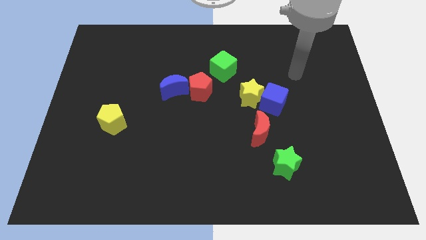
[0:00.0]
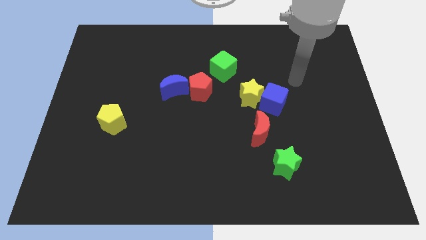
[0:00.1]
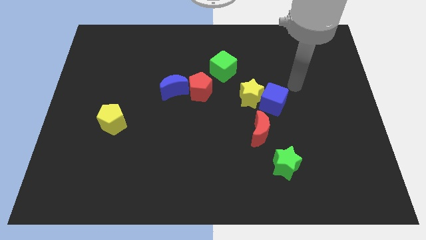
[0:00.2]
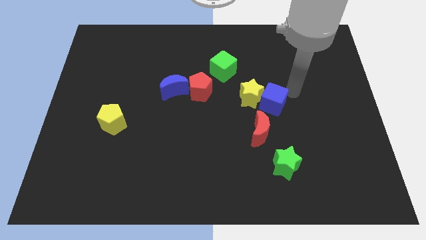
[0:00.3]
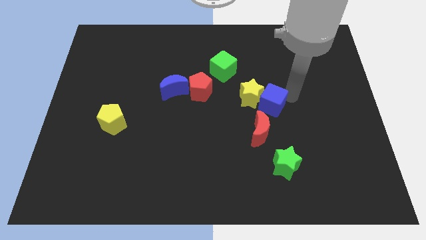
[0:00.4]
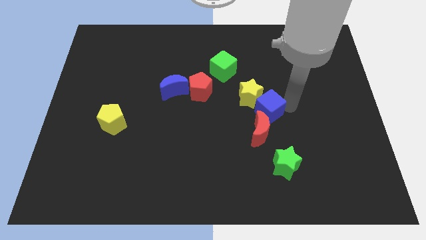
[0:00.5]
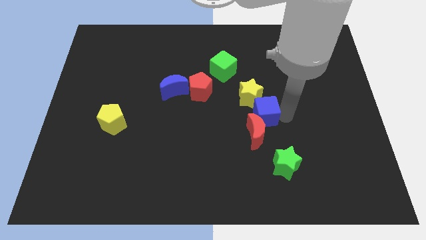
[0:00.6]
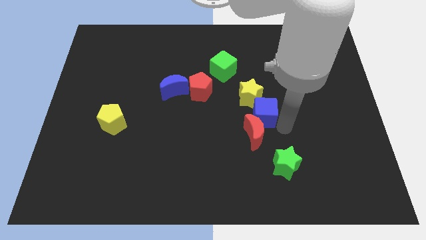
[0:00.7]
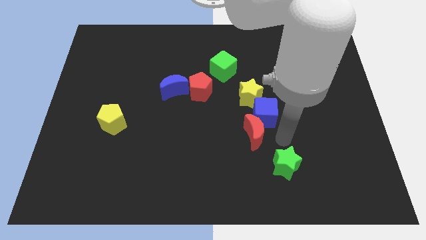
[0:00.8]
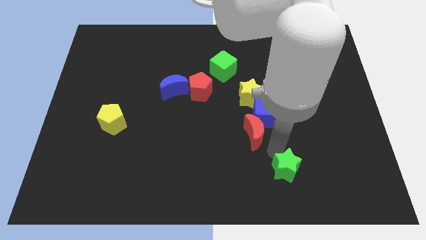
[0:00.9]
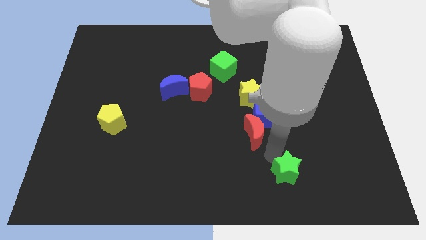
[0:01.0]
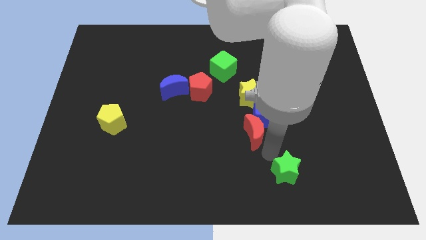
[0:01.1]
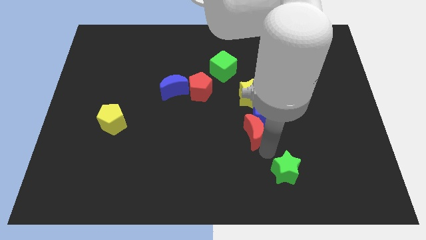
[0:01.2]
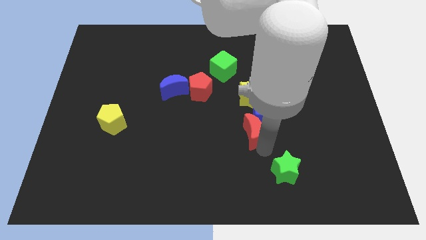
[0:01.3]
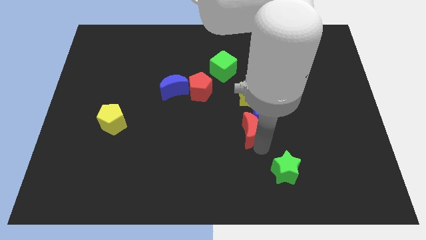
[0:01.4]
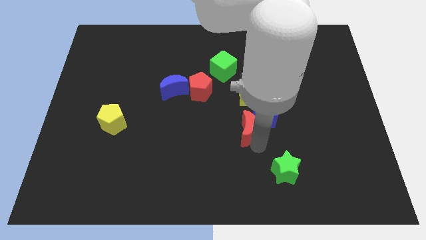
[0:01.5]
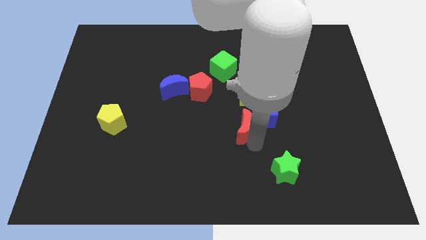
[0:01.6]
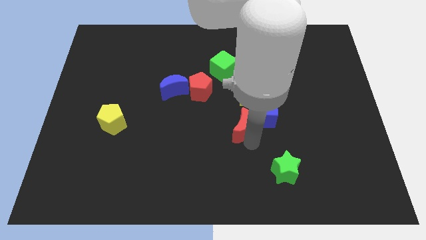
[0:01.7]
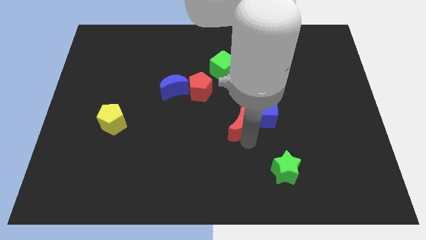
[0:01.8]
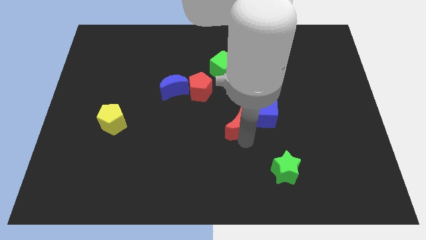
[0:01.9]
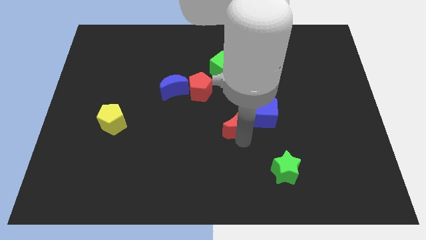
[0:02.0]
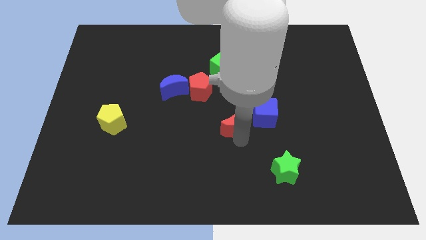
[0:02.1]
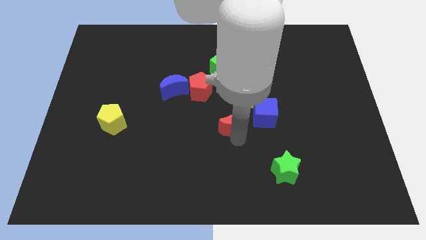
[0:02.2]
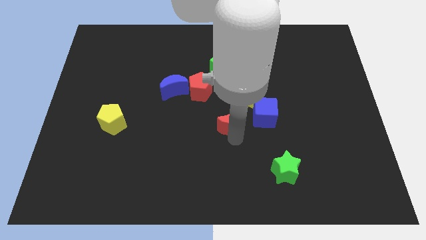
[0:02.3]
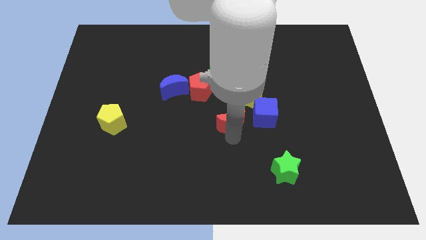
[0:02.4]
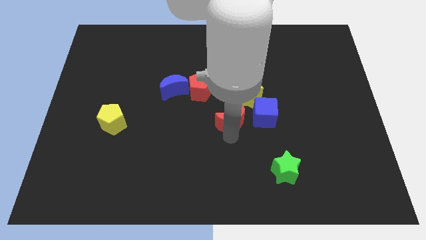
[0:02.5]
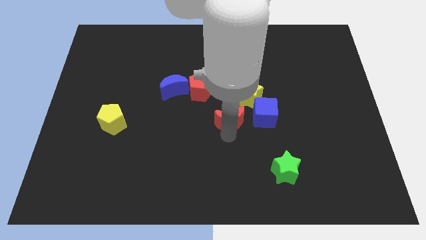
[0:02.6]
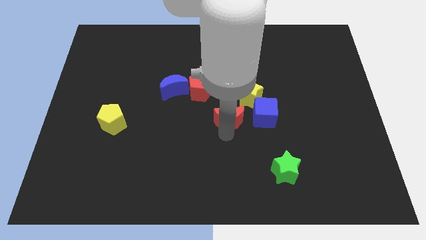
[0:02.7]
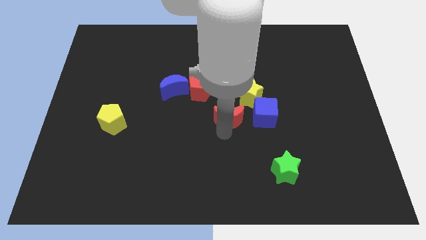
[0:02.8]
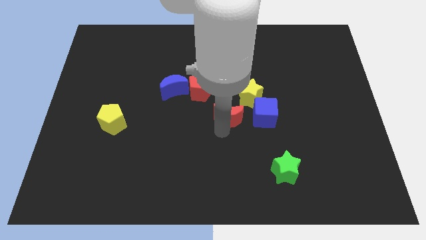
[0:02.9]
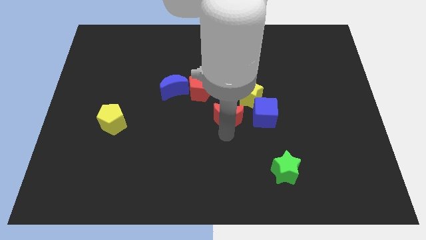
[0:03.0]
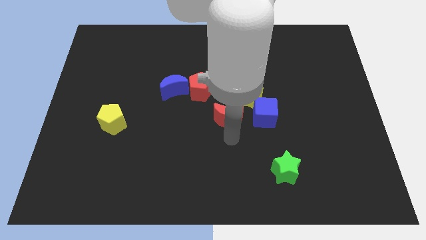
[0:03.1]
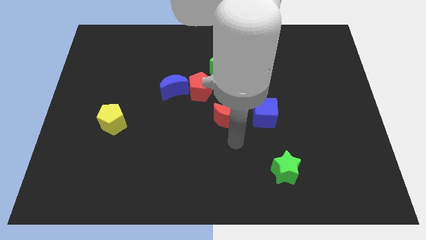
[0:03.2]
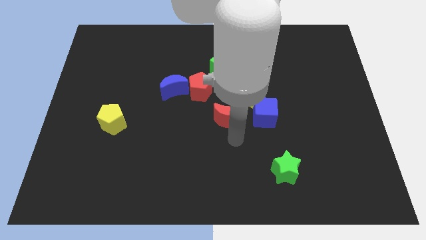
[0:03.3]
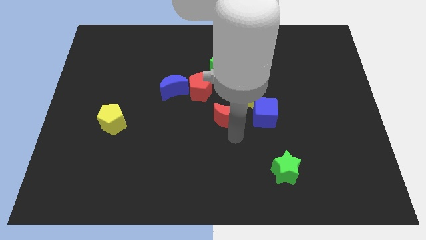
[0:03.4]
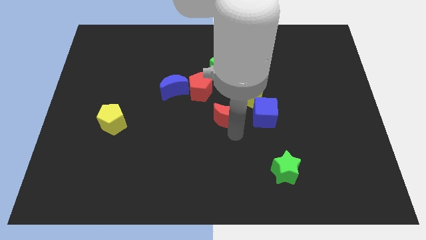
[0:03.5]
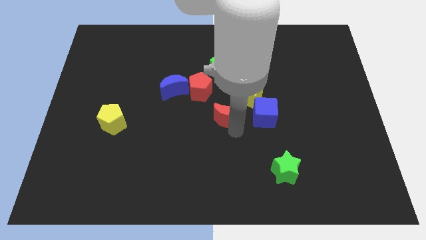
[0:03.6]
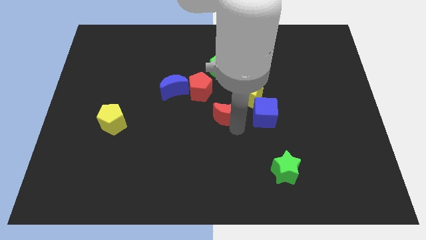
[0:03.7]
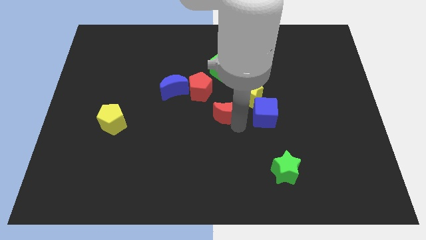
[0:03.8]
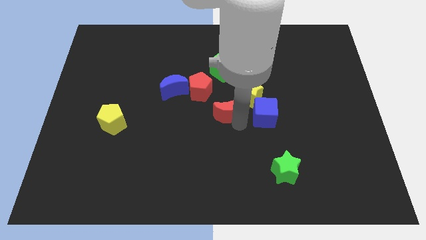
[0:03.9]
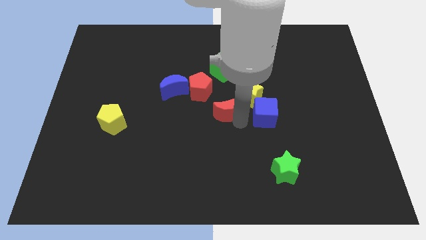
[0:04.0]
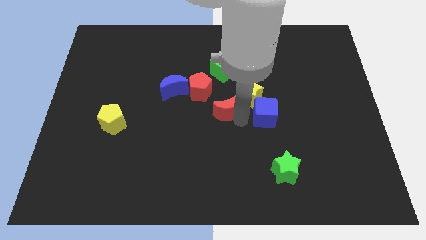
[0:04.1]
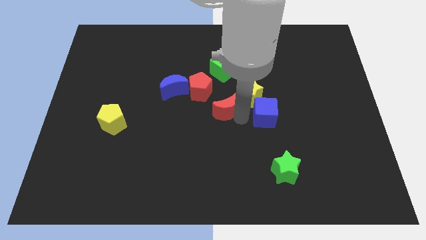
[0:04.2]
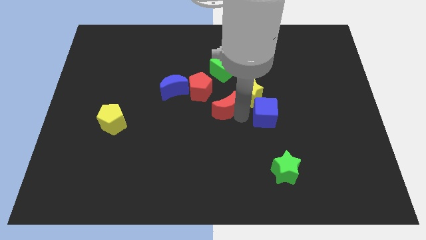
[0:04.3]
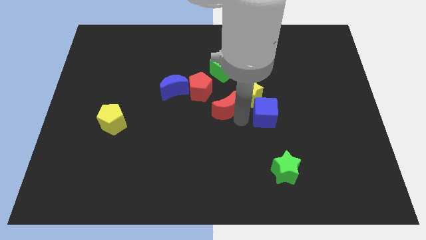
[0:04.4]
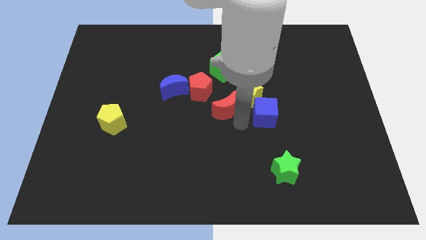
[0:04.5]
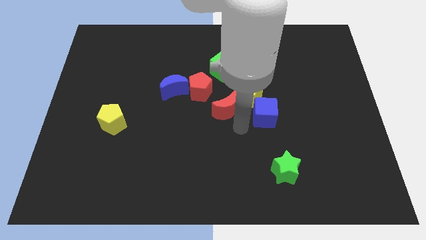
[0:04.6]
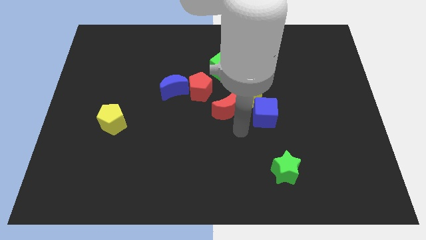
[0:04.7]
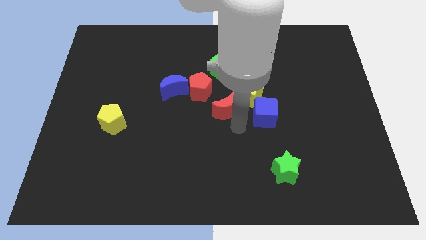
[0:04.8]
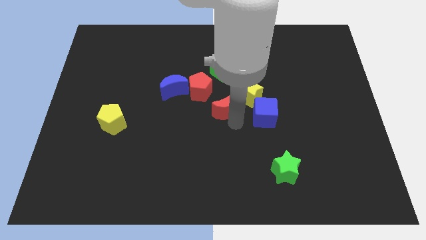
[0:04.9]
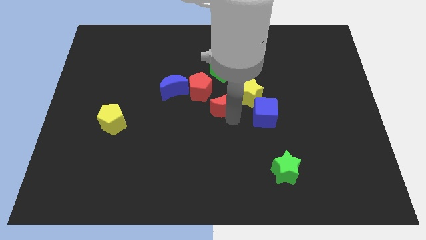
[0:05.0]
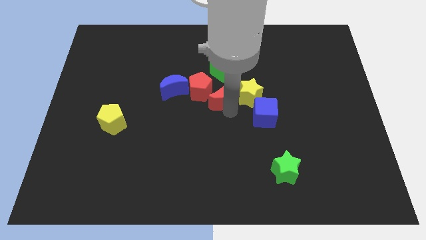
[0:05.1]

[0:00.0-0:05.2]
put the red moon to the red pentagon

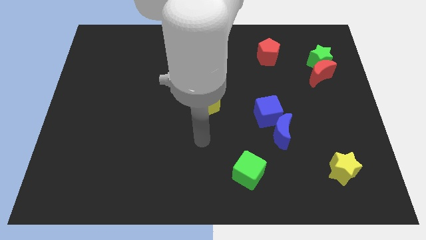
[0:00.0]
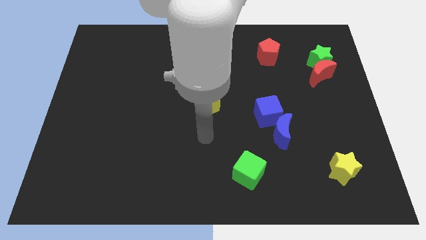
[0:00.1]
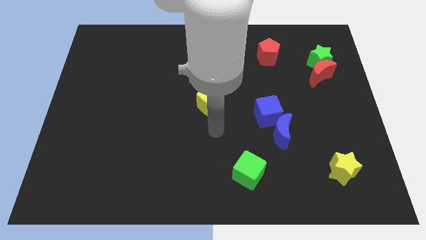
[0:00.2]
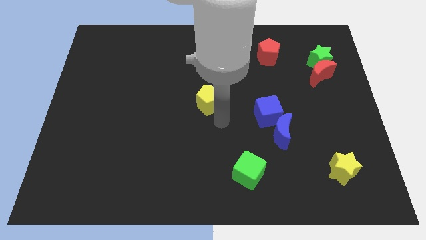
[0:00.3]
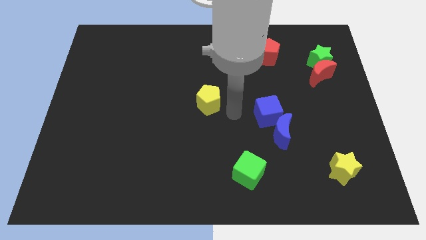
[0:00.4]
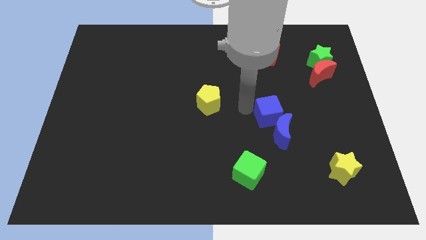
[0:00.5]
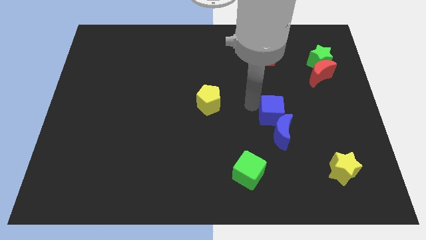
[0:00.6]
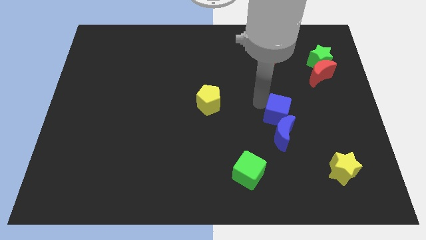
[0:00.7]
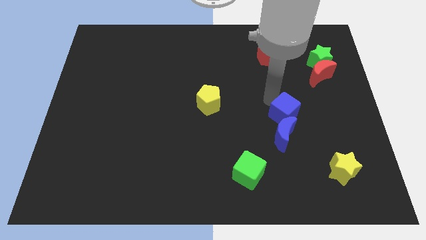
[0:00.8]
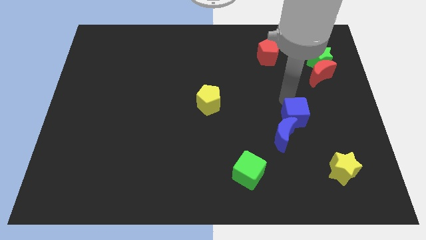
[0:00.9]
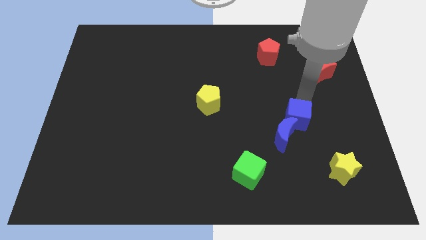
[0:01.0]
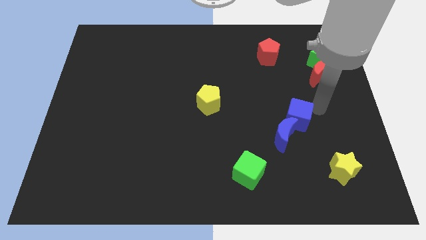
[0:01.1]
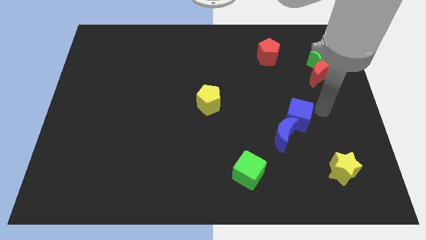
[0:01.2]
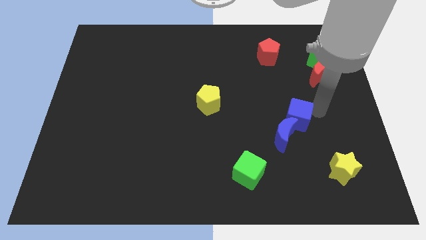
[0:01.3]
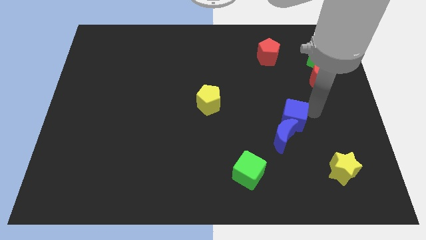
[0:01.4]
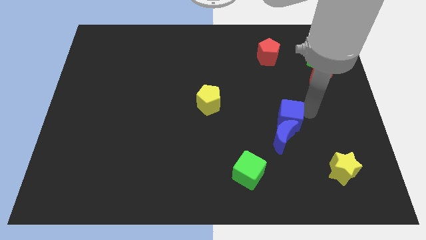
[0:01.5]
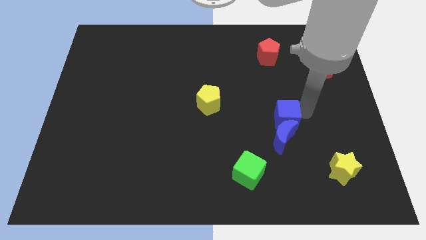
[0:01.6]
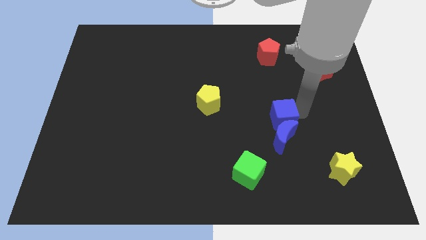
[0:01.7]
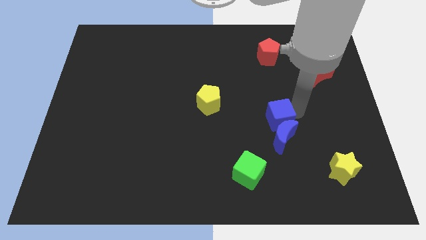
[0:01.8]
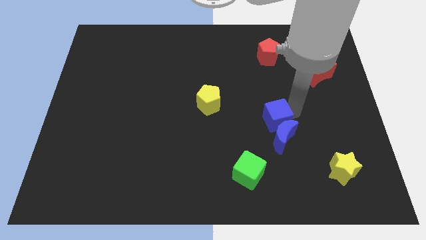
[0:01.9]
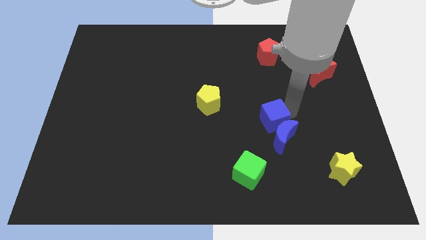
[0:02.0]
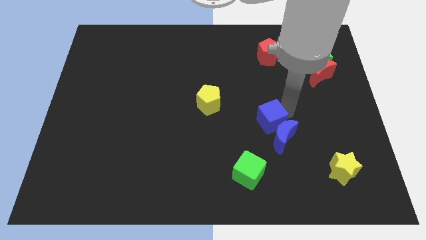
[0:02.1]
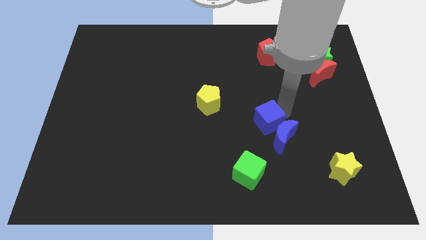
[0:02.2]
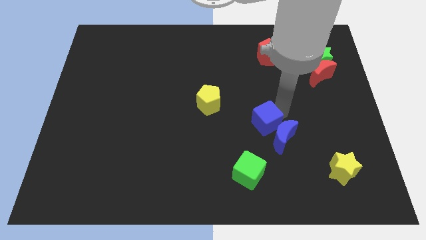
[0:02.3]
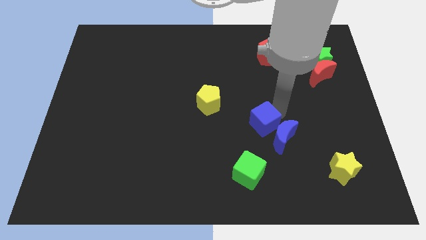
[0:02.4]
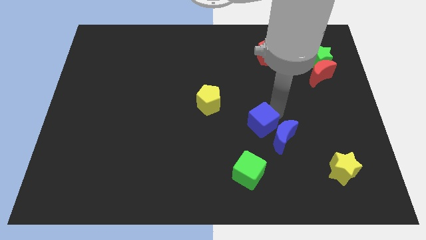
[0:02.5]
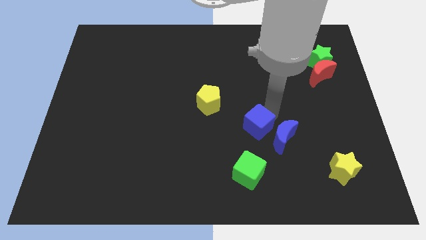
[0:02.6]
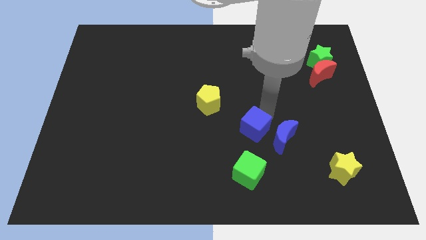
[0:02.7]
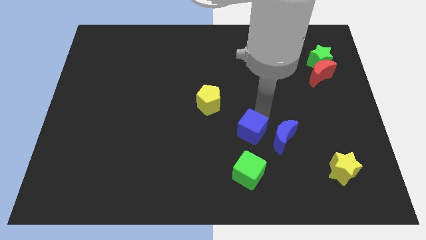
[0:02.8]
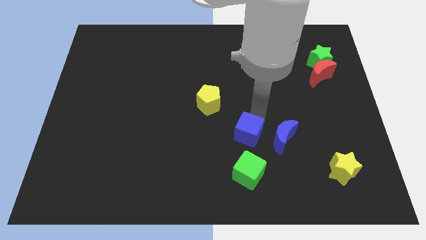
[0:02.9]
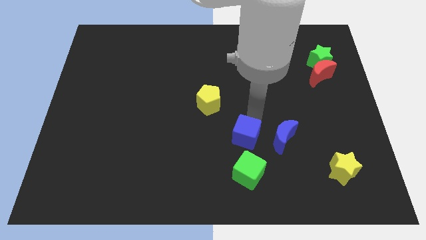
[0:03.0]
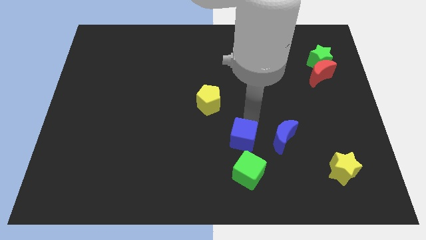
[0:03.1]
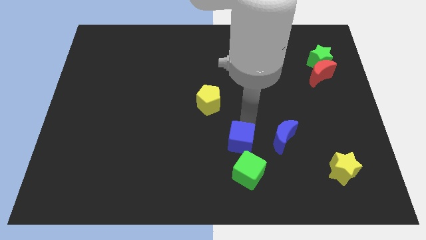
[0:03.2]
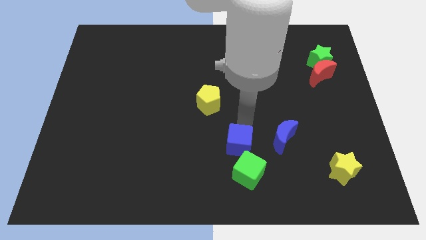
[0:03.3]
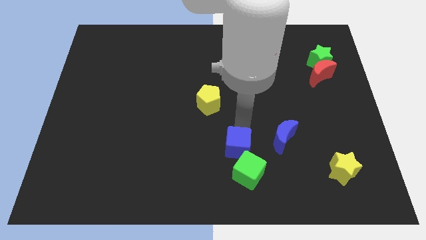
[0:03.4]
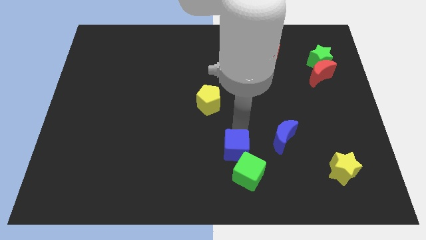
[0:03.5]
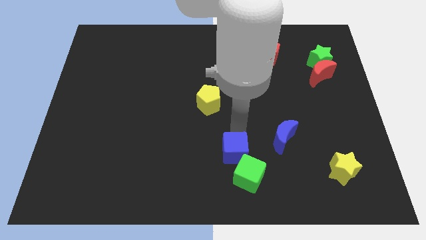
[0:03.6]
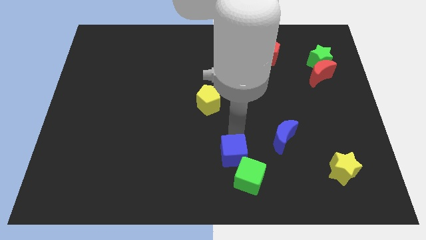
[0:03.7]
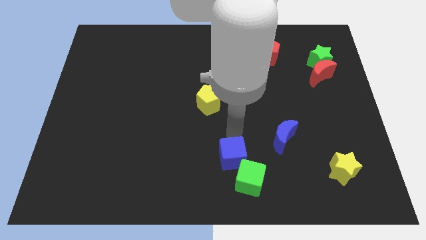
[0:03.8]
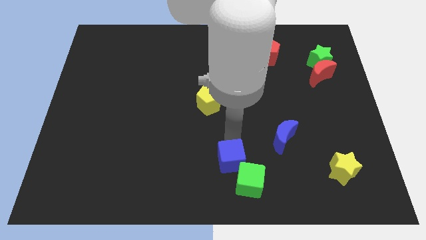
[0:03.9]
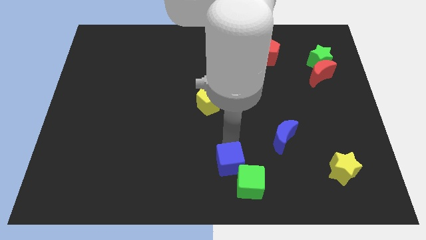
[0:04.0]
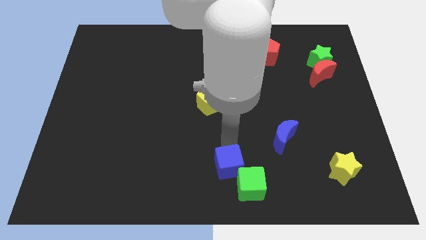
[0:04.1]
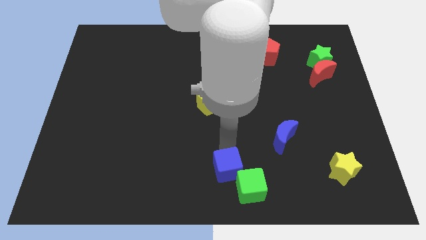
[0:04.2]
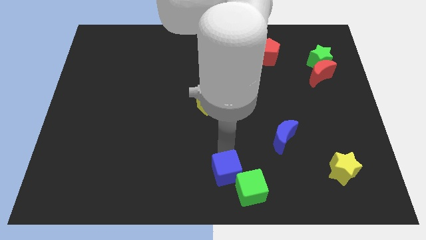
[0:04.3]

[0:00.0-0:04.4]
push the blue cube close to the green cube
